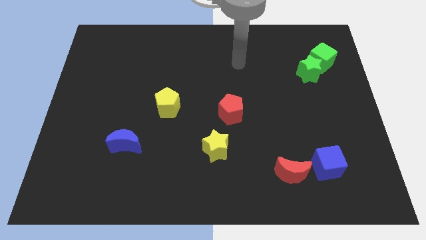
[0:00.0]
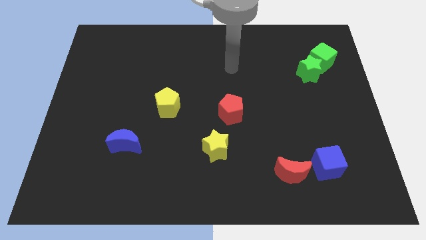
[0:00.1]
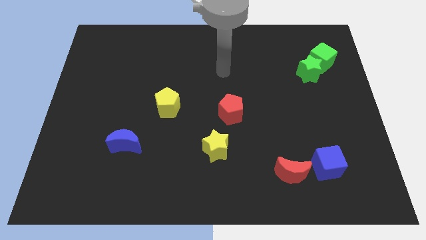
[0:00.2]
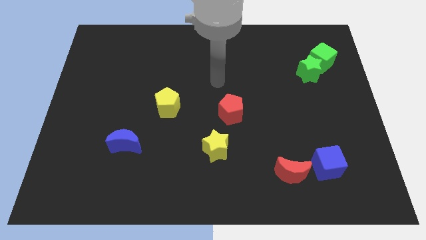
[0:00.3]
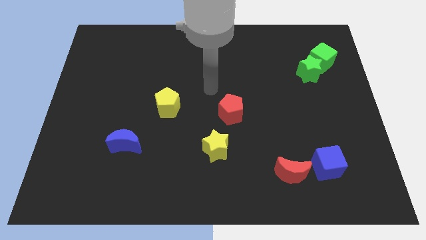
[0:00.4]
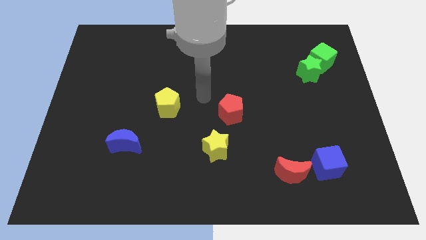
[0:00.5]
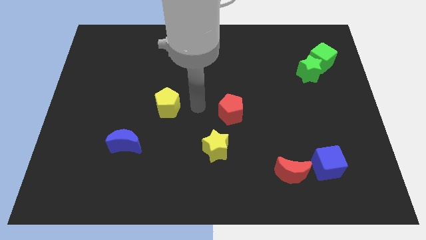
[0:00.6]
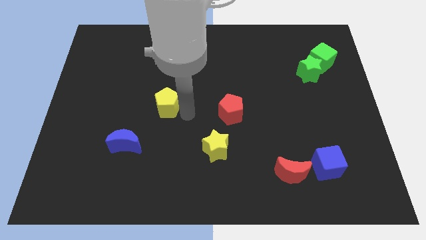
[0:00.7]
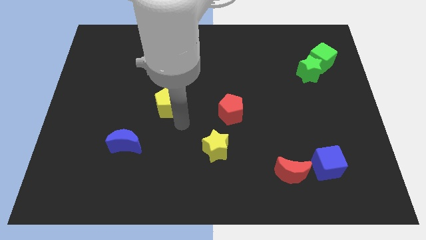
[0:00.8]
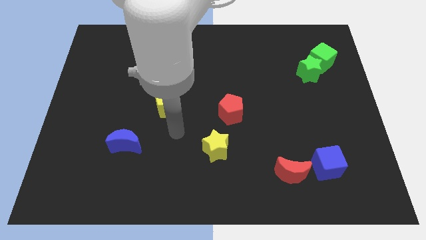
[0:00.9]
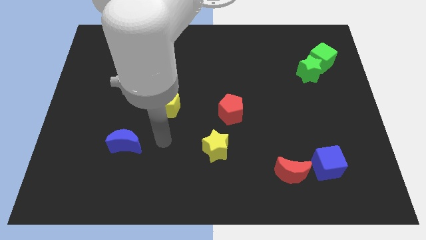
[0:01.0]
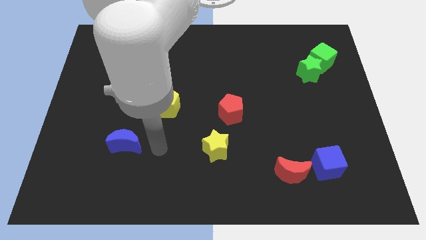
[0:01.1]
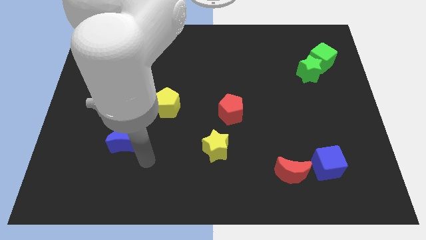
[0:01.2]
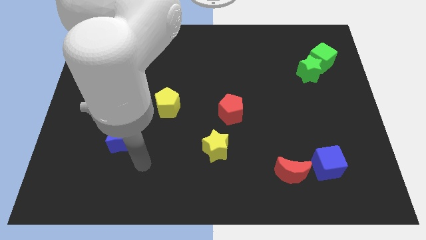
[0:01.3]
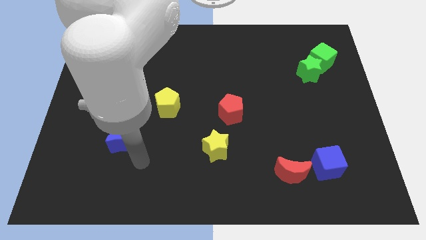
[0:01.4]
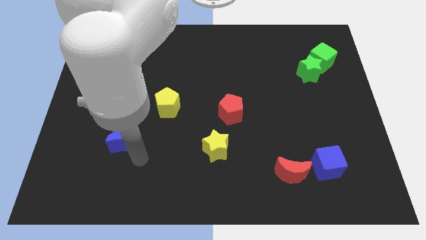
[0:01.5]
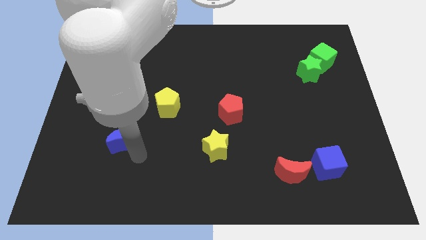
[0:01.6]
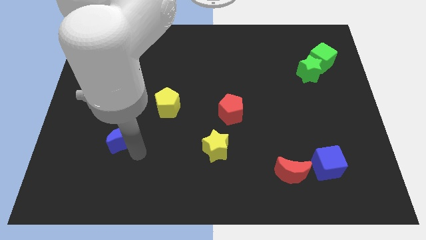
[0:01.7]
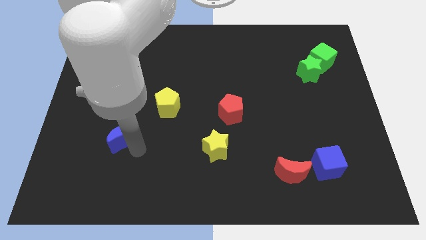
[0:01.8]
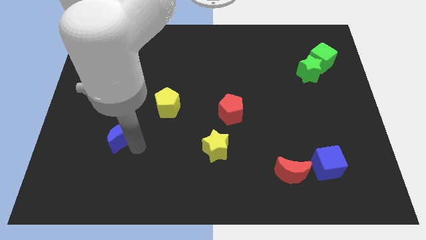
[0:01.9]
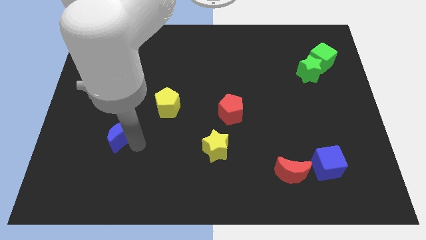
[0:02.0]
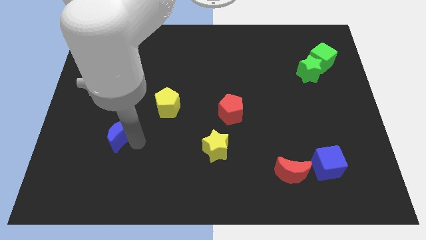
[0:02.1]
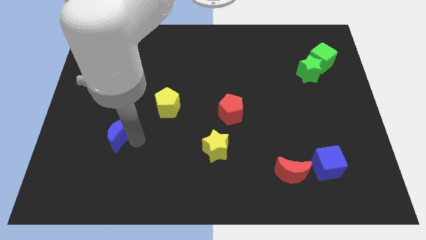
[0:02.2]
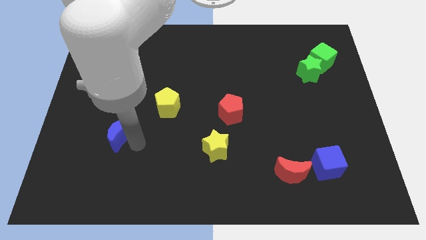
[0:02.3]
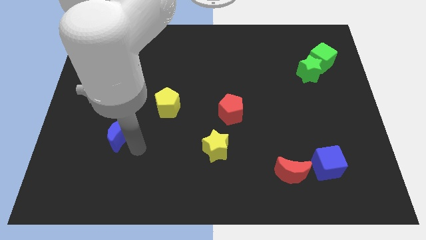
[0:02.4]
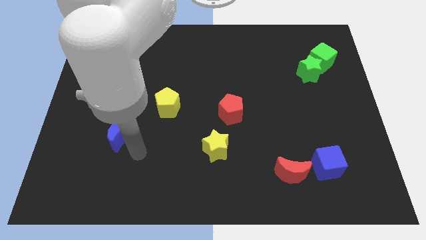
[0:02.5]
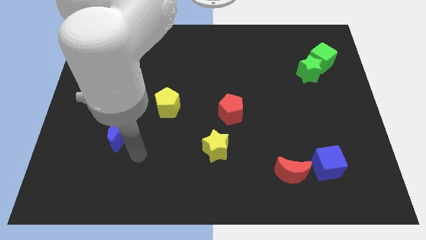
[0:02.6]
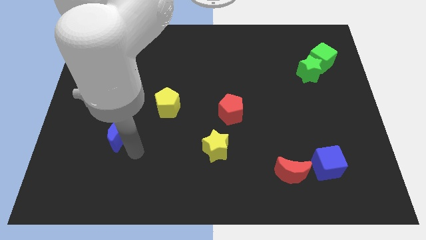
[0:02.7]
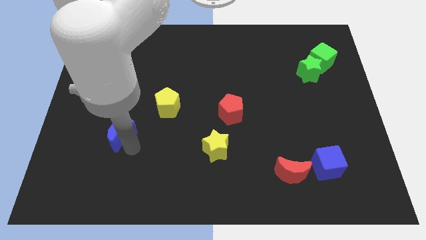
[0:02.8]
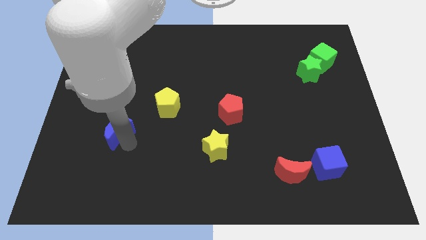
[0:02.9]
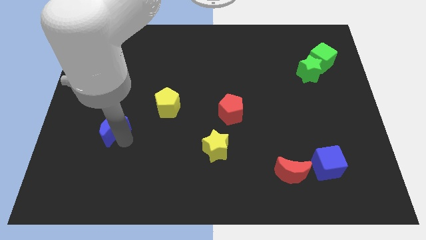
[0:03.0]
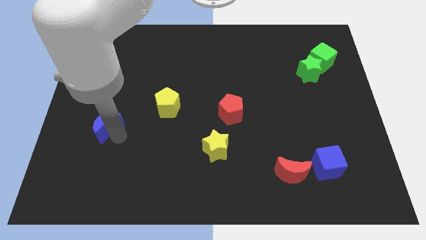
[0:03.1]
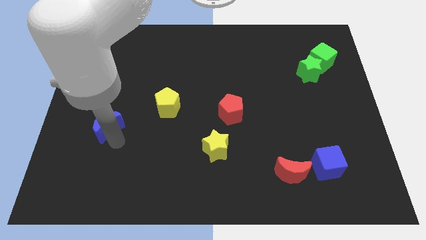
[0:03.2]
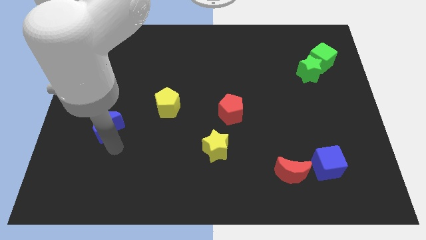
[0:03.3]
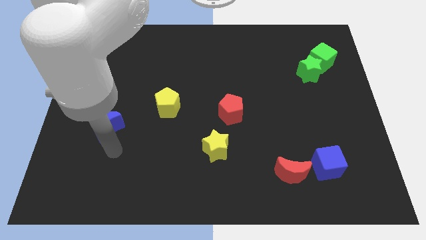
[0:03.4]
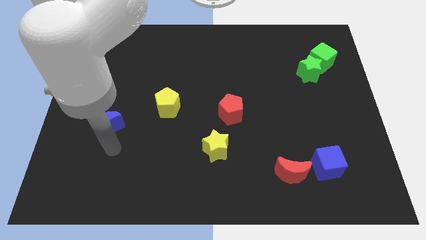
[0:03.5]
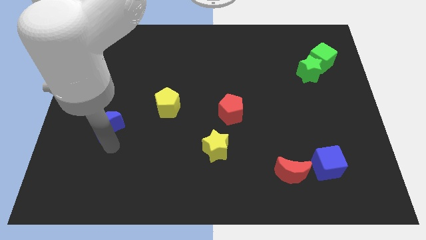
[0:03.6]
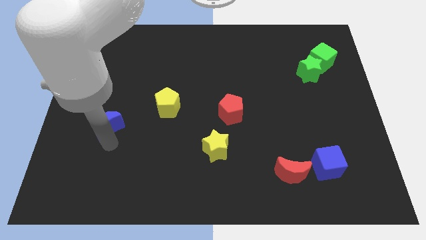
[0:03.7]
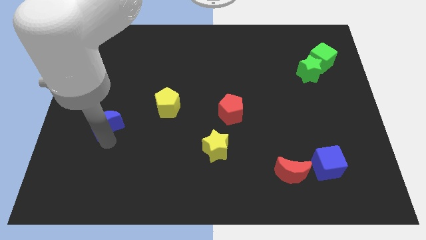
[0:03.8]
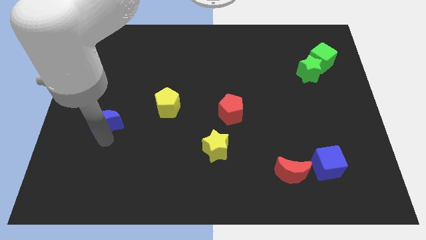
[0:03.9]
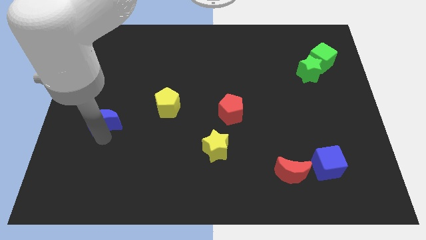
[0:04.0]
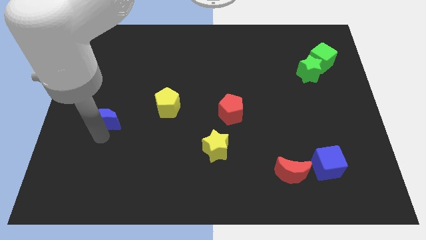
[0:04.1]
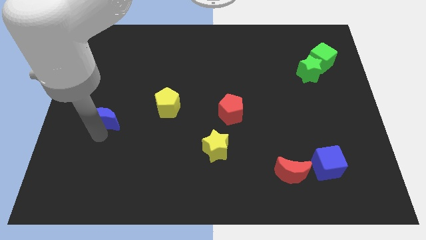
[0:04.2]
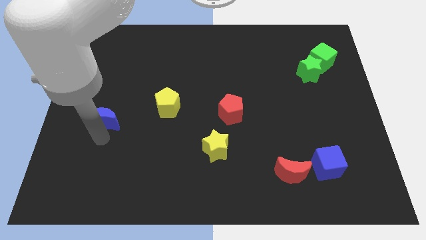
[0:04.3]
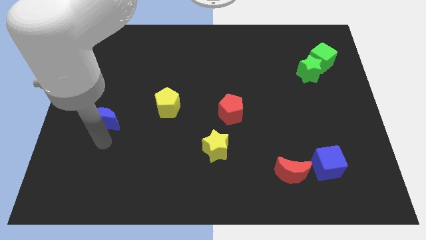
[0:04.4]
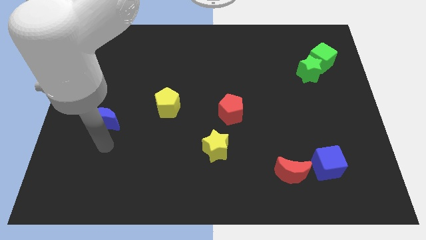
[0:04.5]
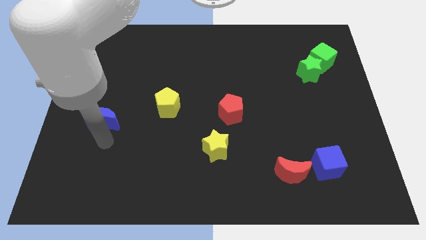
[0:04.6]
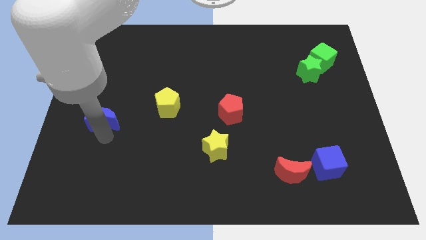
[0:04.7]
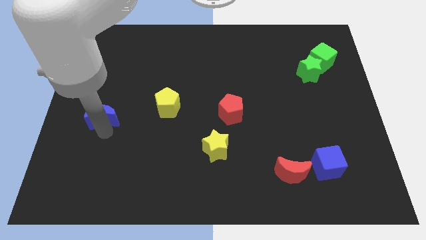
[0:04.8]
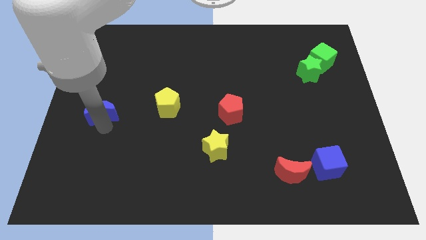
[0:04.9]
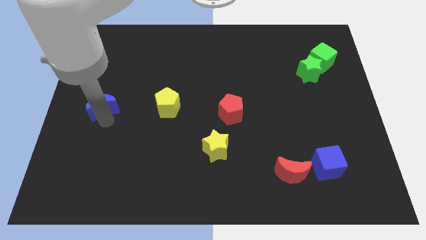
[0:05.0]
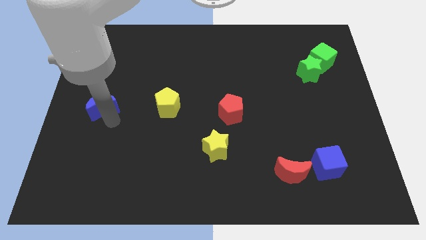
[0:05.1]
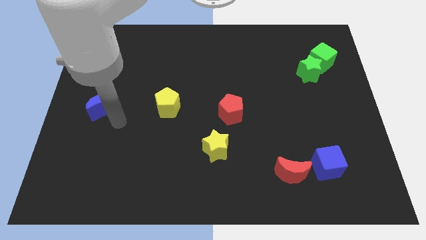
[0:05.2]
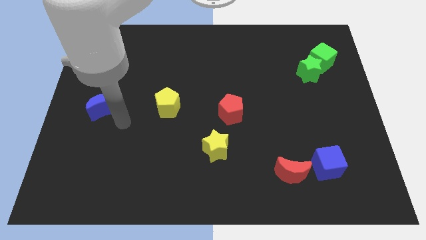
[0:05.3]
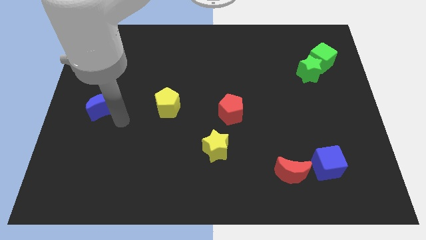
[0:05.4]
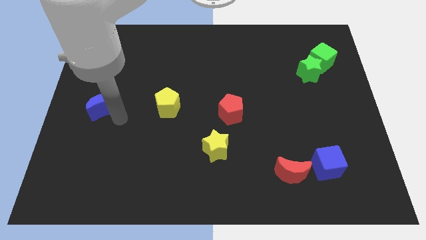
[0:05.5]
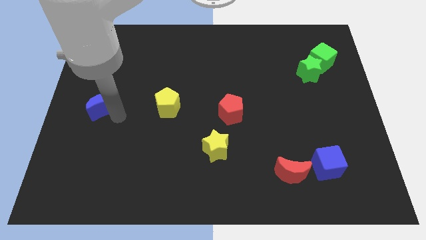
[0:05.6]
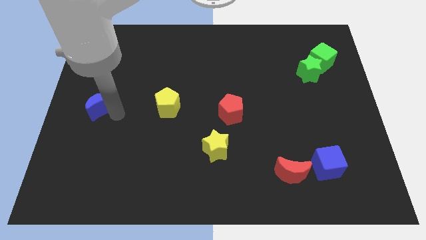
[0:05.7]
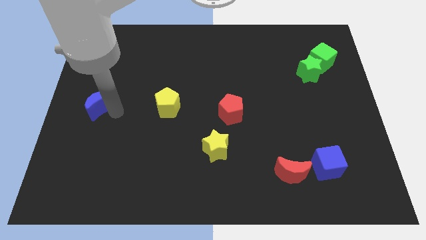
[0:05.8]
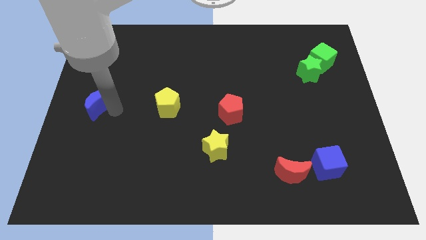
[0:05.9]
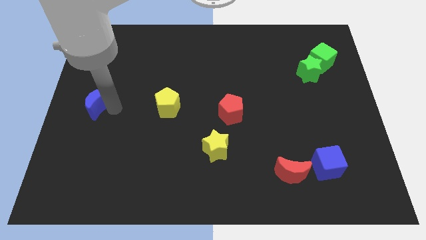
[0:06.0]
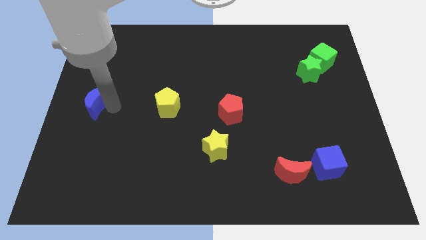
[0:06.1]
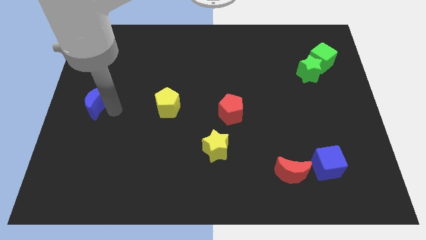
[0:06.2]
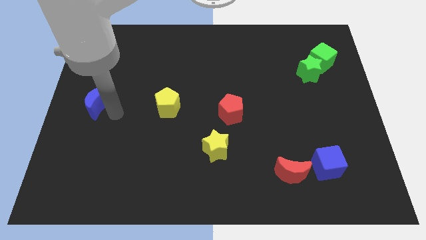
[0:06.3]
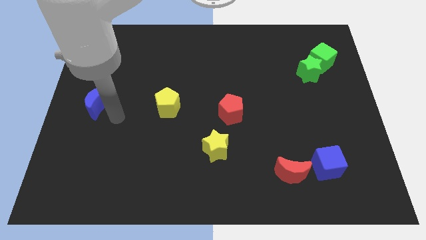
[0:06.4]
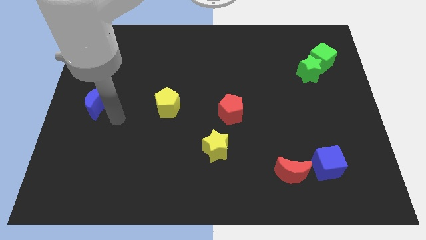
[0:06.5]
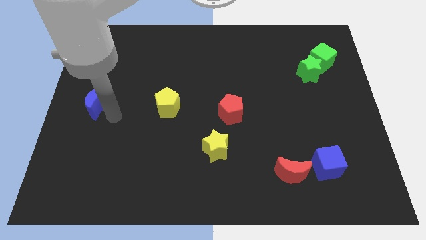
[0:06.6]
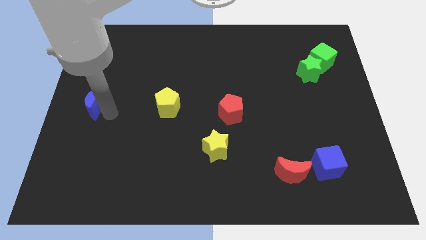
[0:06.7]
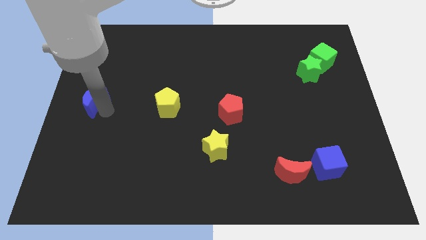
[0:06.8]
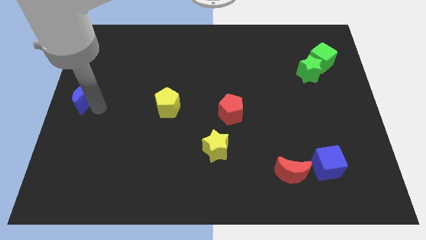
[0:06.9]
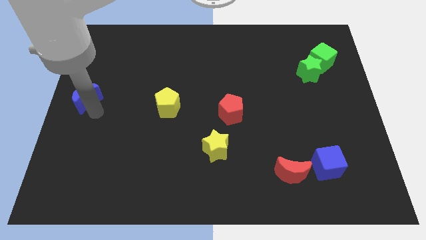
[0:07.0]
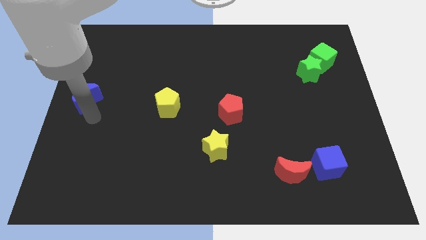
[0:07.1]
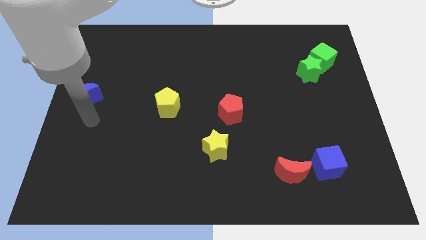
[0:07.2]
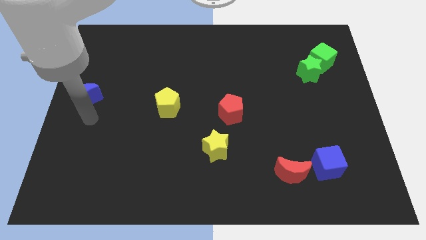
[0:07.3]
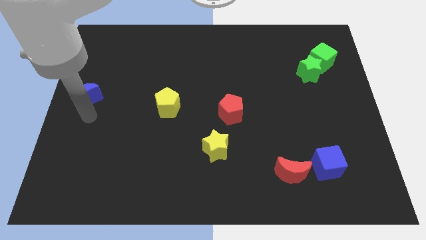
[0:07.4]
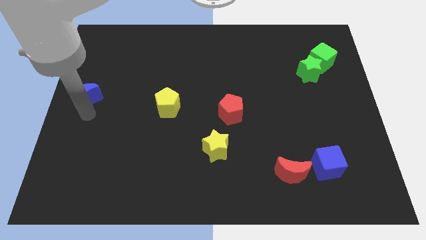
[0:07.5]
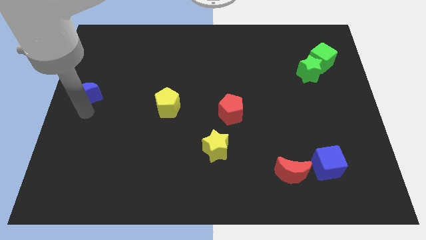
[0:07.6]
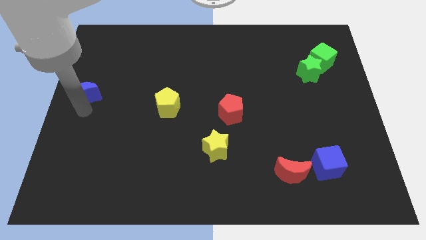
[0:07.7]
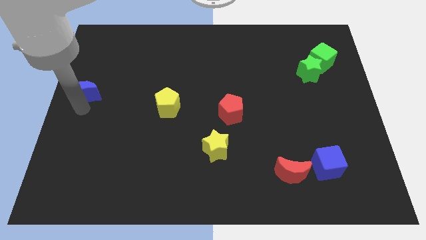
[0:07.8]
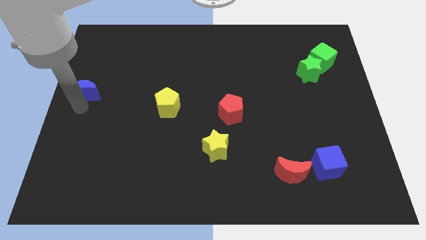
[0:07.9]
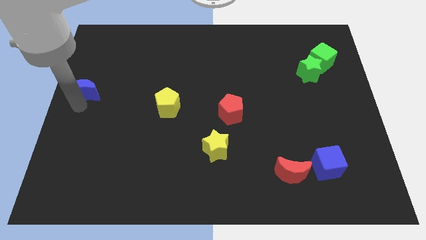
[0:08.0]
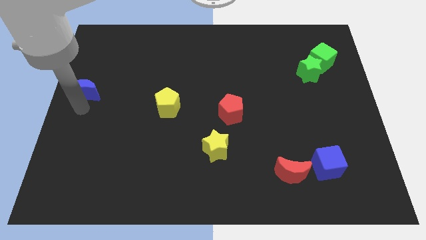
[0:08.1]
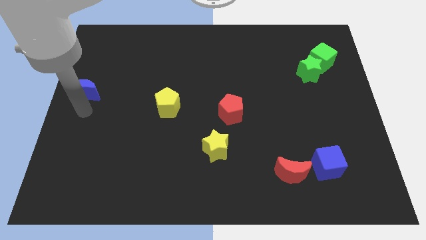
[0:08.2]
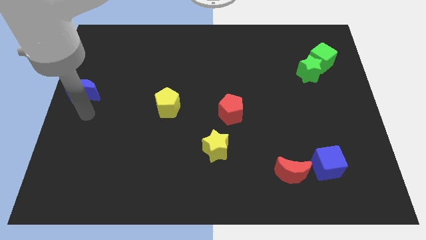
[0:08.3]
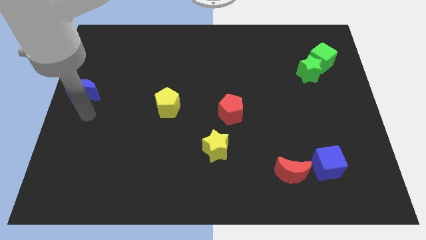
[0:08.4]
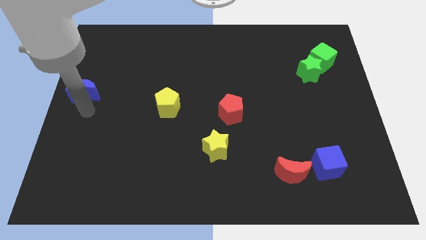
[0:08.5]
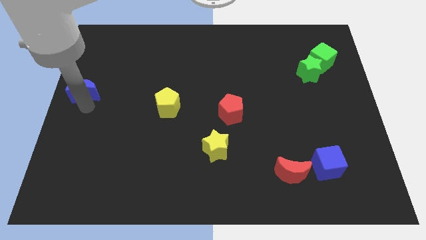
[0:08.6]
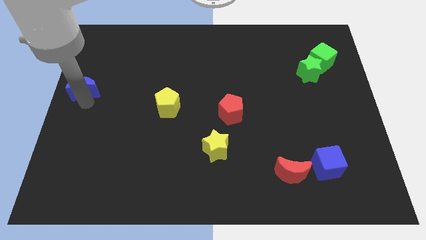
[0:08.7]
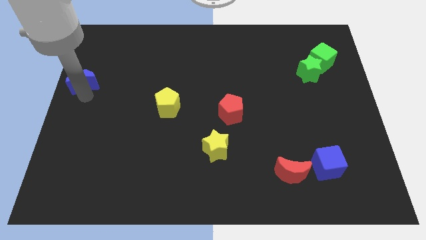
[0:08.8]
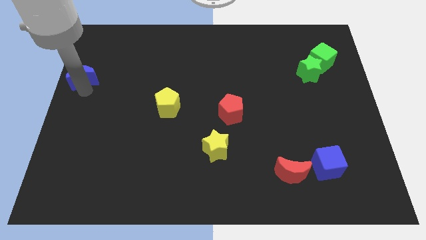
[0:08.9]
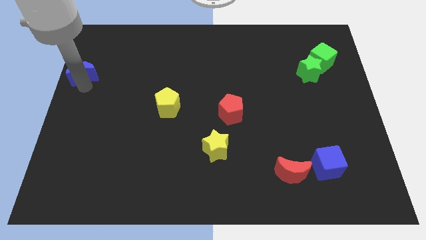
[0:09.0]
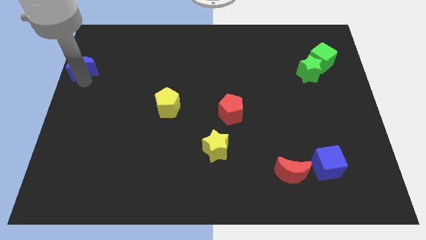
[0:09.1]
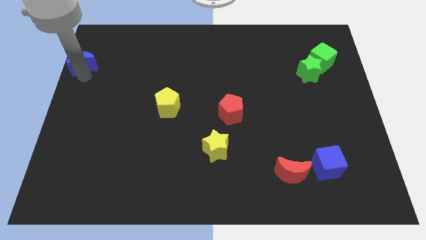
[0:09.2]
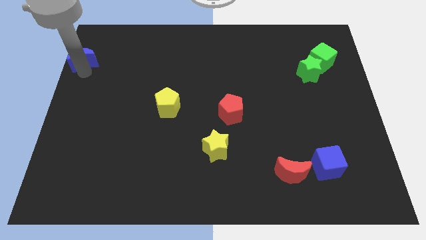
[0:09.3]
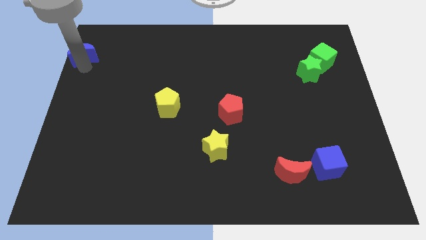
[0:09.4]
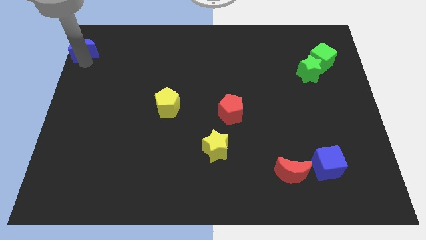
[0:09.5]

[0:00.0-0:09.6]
slide the blue moon to the upper left corner
